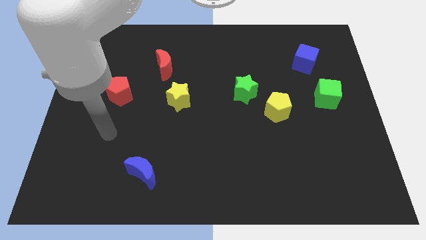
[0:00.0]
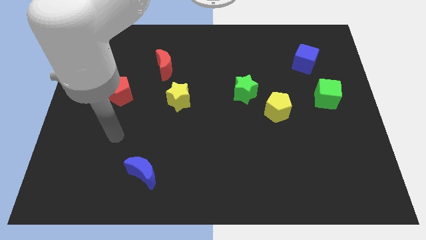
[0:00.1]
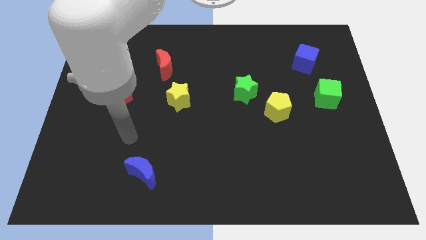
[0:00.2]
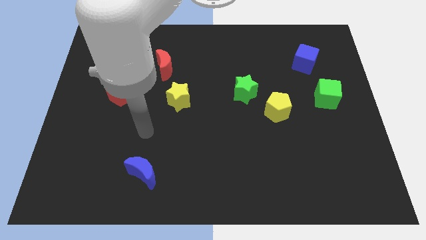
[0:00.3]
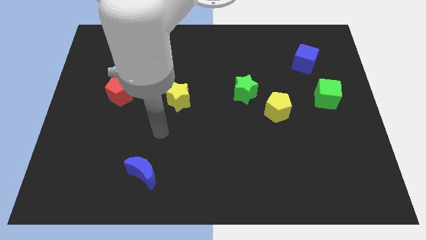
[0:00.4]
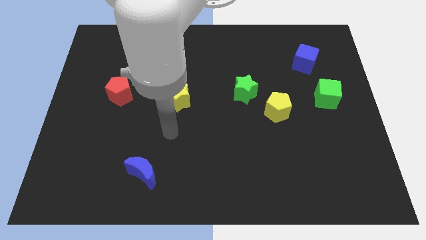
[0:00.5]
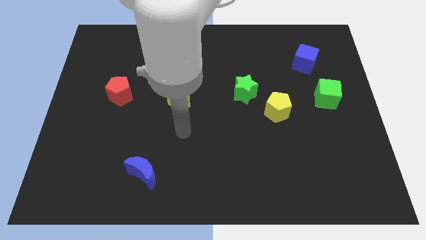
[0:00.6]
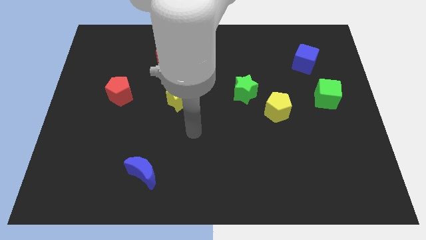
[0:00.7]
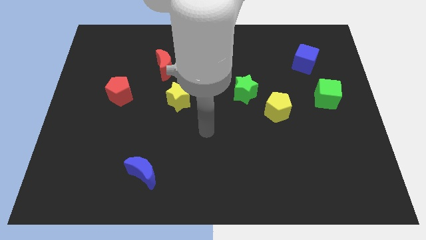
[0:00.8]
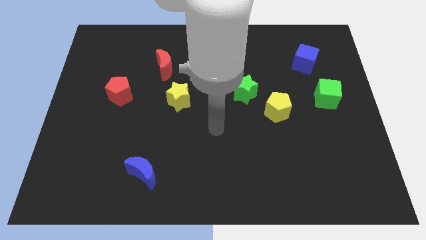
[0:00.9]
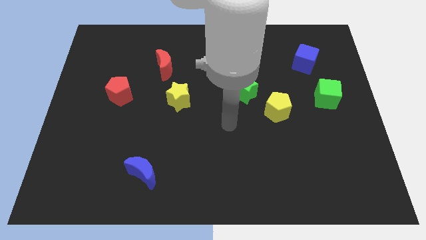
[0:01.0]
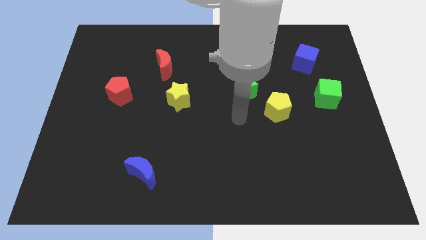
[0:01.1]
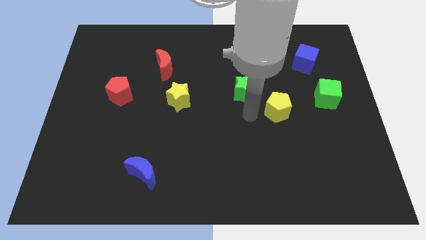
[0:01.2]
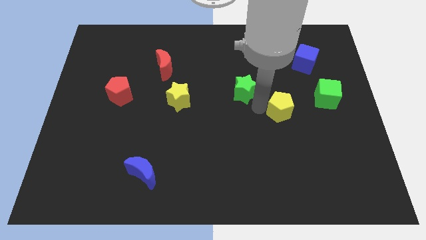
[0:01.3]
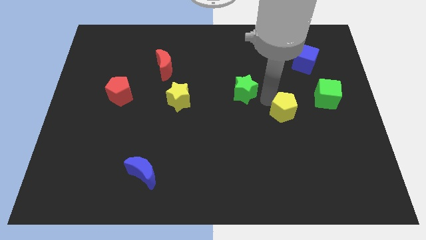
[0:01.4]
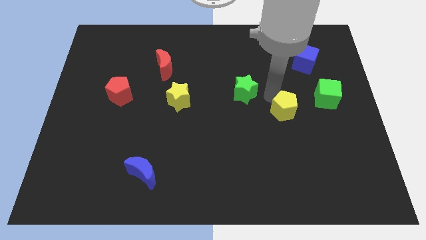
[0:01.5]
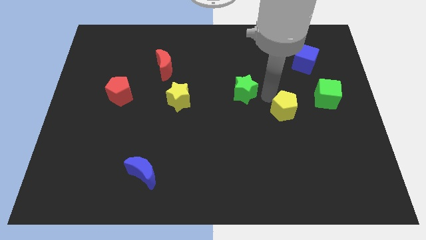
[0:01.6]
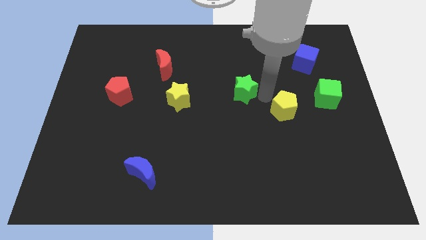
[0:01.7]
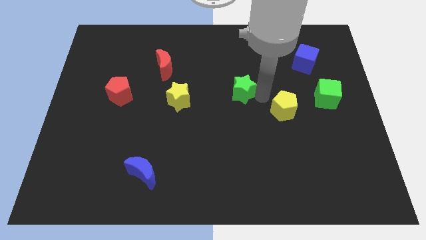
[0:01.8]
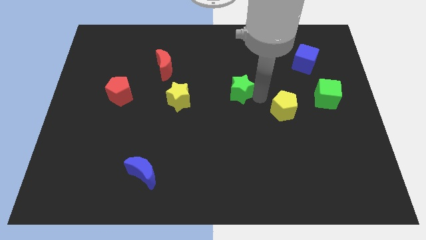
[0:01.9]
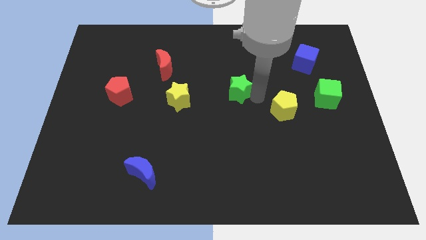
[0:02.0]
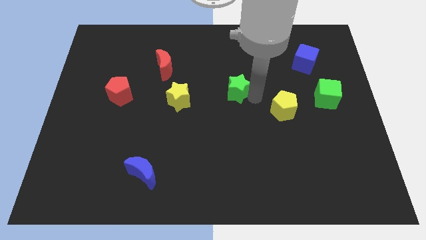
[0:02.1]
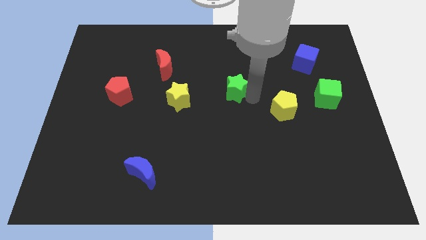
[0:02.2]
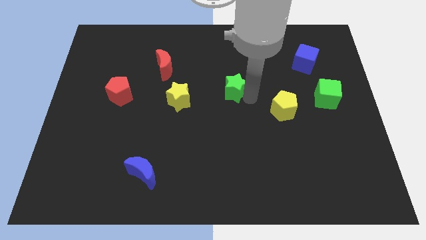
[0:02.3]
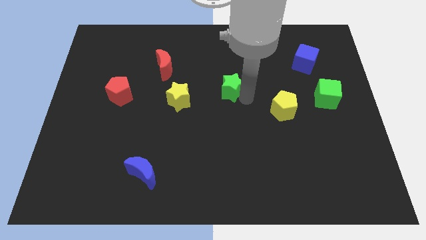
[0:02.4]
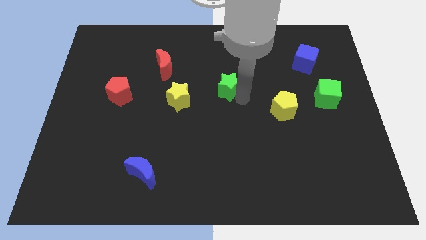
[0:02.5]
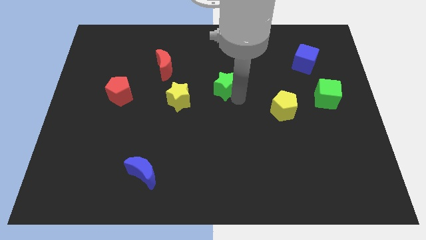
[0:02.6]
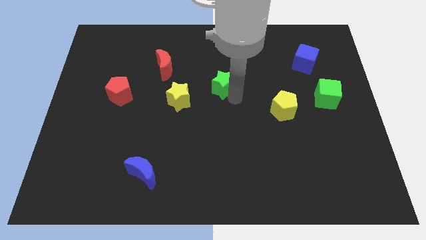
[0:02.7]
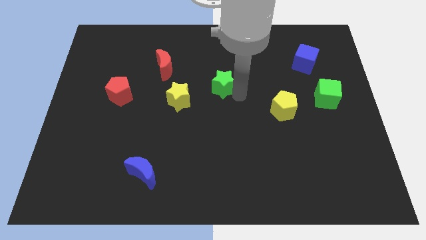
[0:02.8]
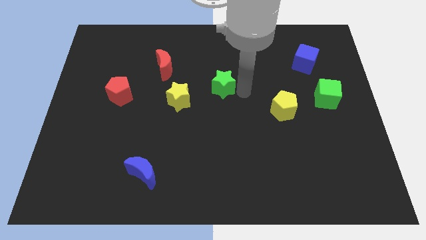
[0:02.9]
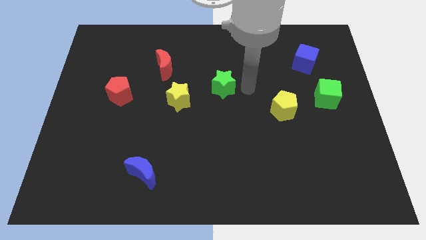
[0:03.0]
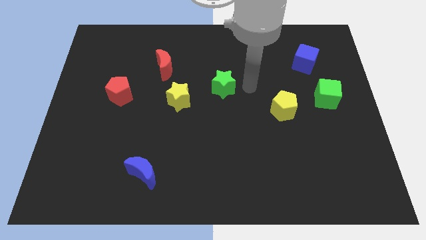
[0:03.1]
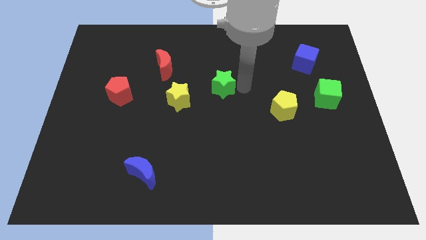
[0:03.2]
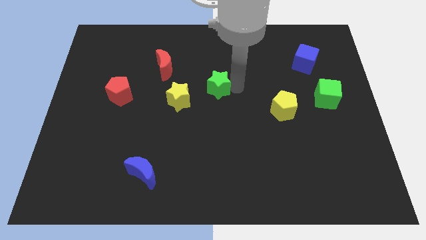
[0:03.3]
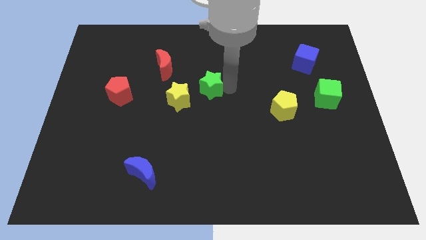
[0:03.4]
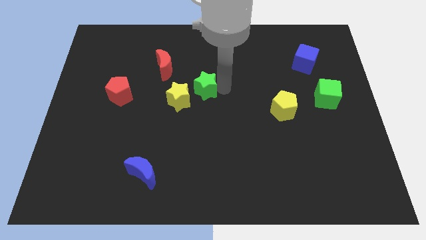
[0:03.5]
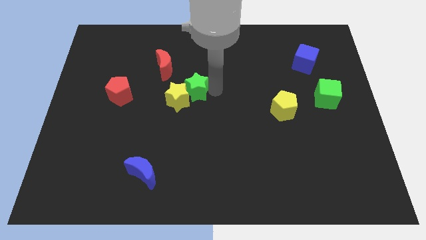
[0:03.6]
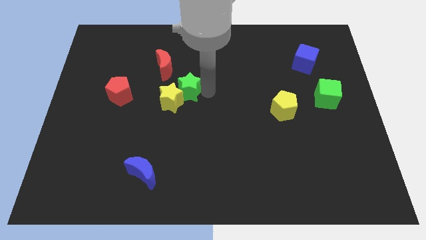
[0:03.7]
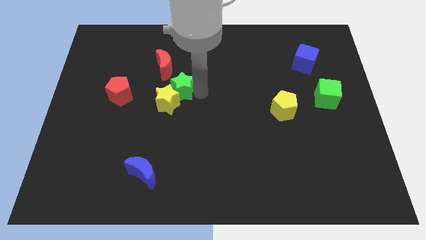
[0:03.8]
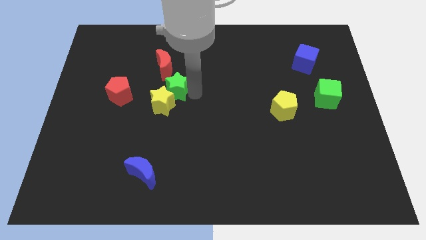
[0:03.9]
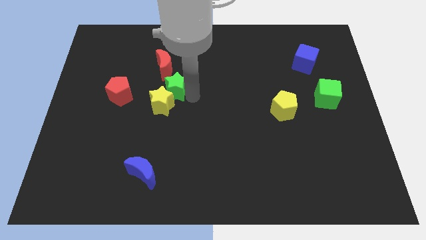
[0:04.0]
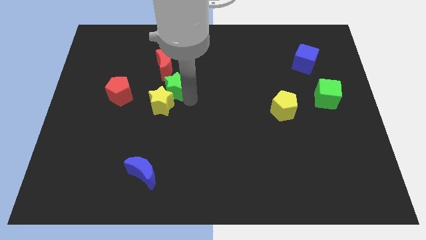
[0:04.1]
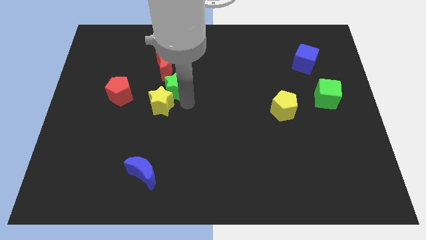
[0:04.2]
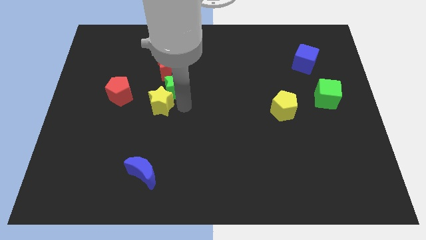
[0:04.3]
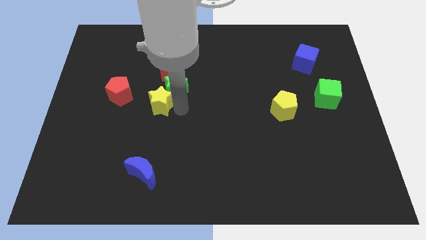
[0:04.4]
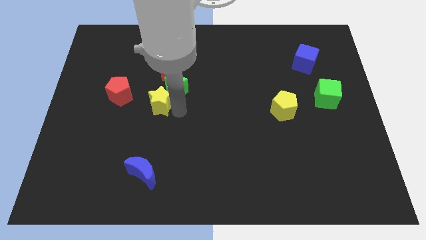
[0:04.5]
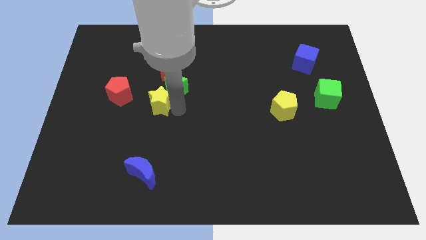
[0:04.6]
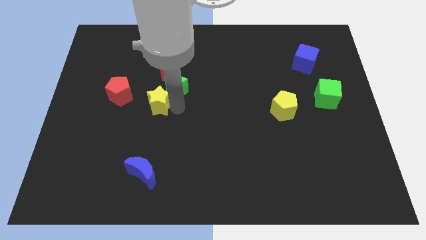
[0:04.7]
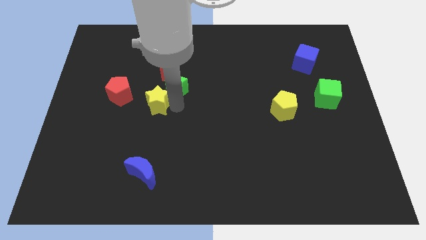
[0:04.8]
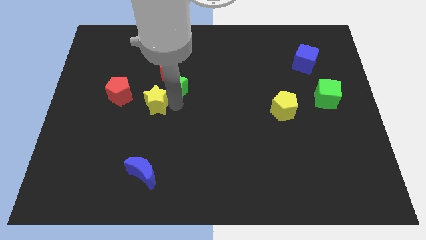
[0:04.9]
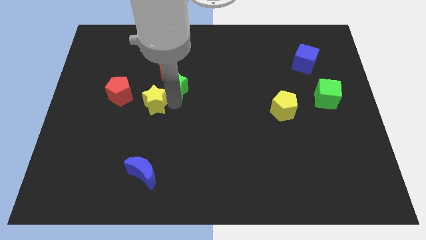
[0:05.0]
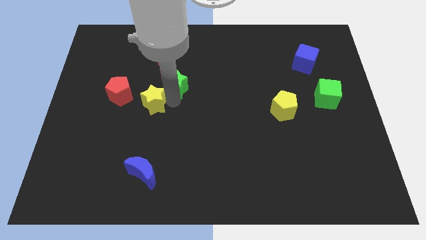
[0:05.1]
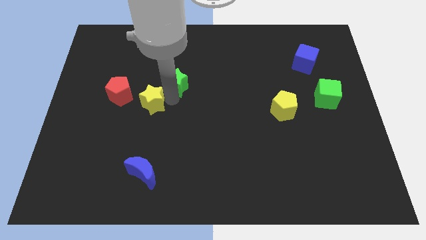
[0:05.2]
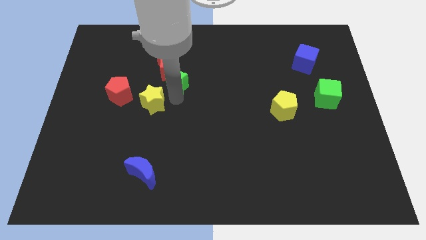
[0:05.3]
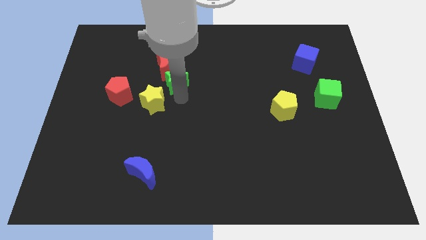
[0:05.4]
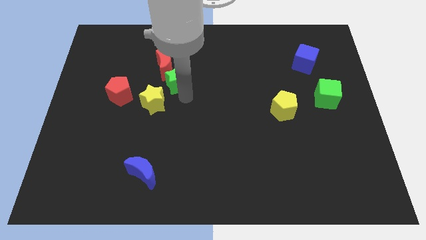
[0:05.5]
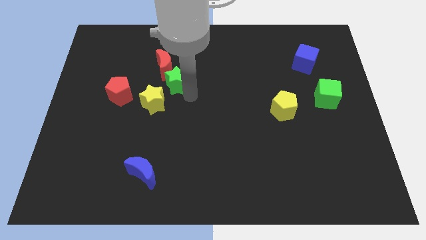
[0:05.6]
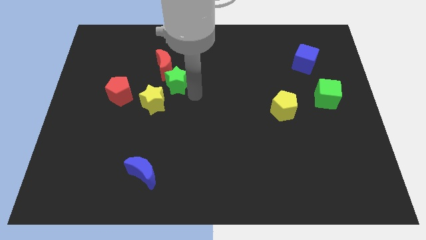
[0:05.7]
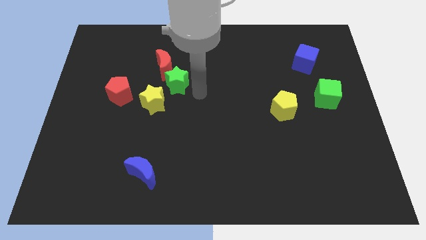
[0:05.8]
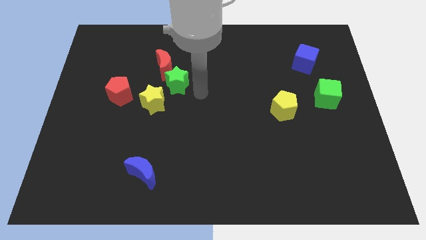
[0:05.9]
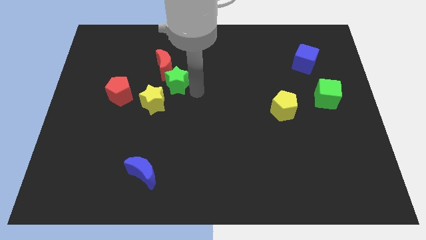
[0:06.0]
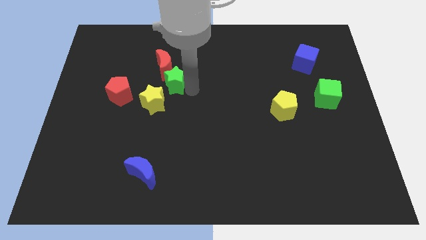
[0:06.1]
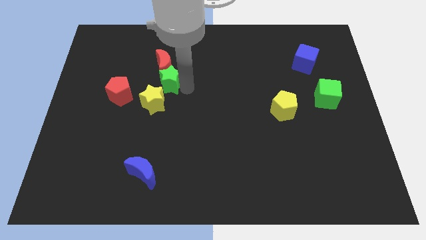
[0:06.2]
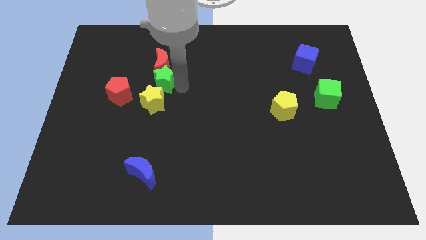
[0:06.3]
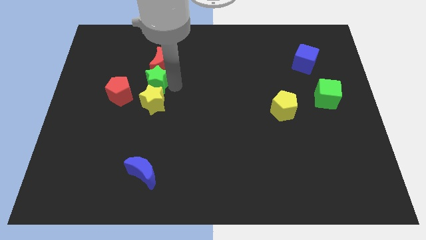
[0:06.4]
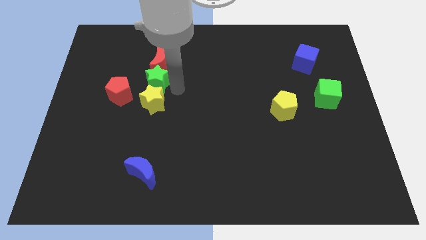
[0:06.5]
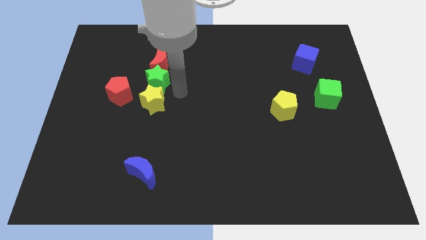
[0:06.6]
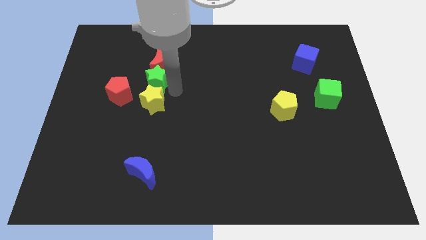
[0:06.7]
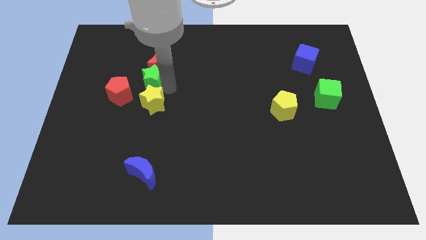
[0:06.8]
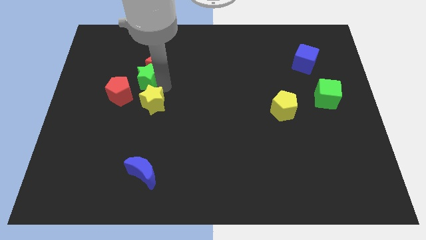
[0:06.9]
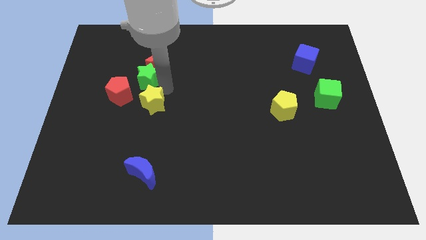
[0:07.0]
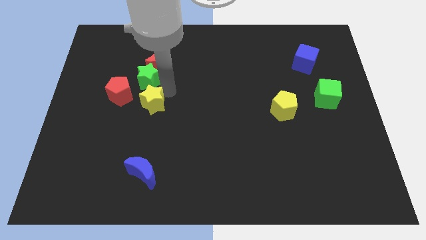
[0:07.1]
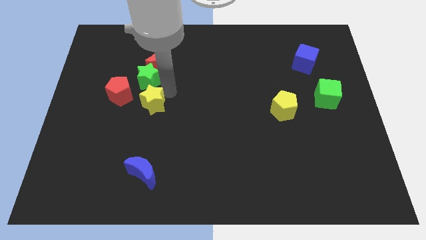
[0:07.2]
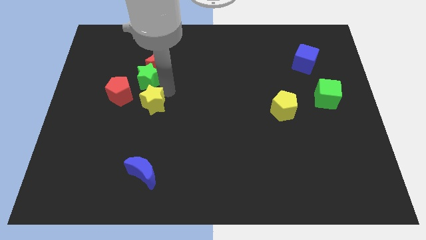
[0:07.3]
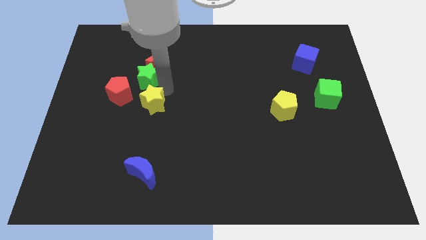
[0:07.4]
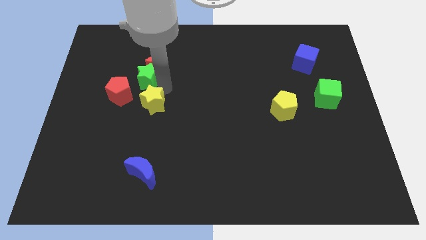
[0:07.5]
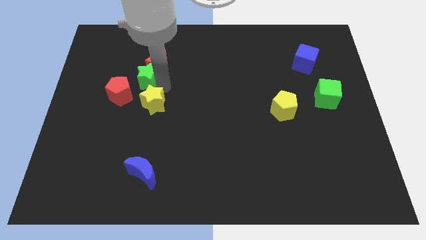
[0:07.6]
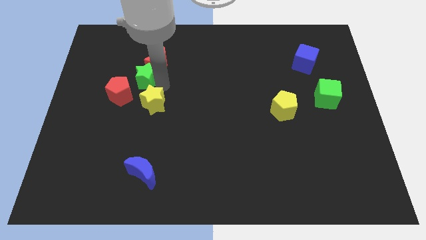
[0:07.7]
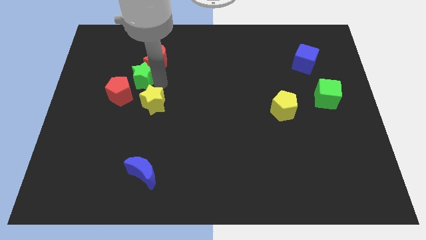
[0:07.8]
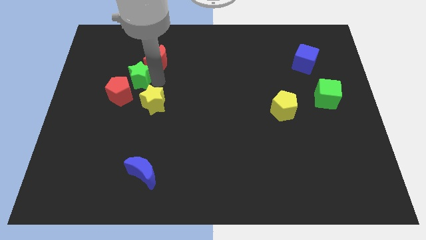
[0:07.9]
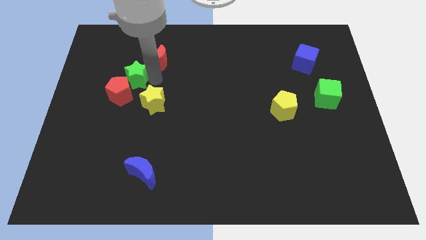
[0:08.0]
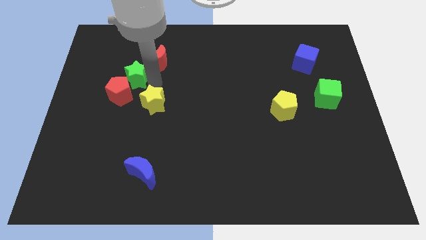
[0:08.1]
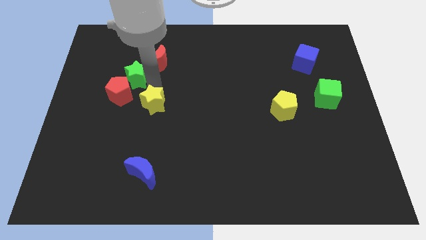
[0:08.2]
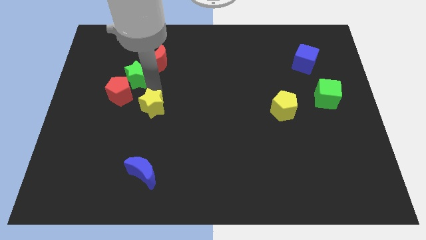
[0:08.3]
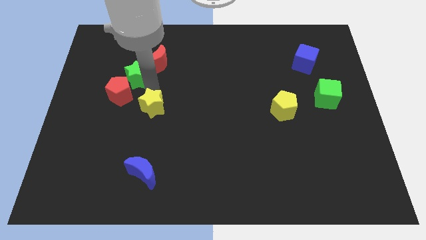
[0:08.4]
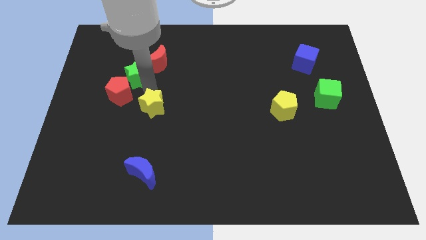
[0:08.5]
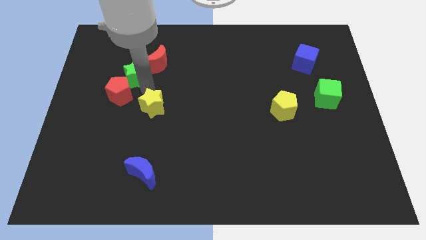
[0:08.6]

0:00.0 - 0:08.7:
push the green star to the left side of the red moon
